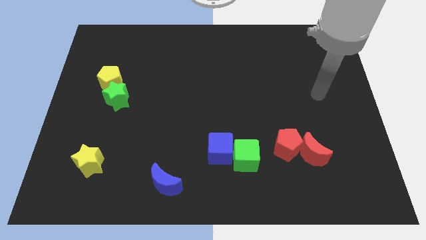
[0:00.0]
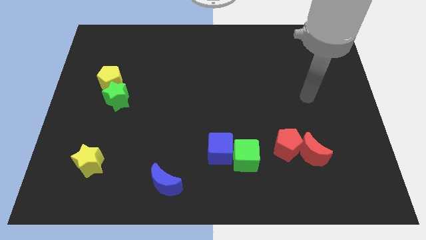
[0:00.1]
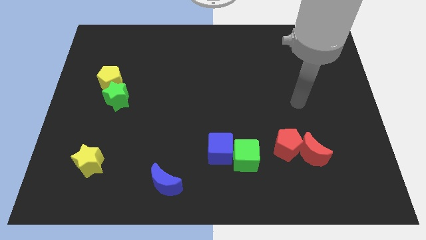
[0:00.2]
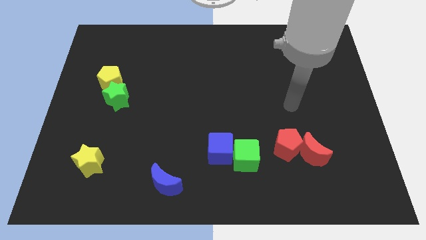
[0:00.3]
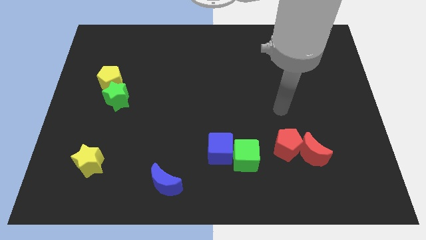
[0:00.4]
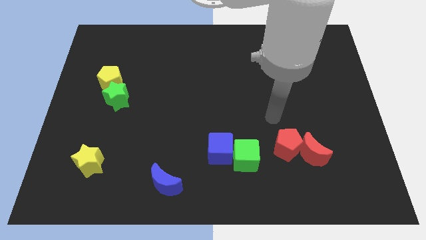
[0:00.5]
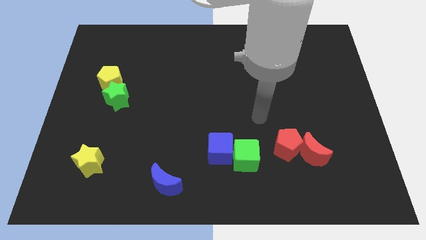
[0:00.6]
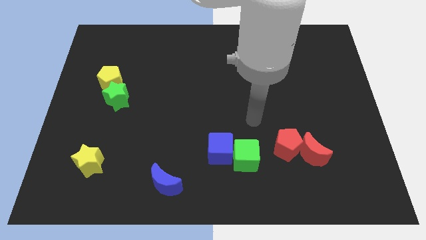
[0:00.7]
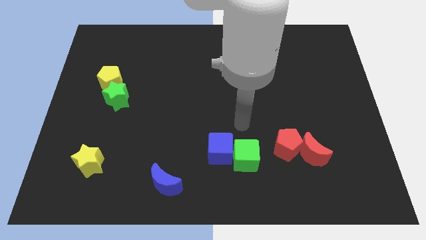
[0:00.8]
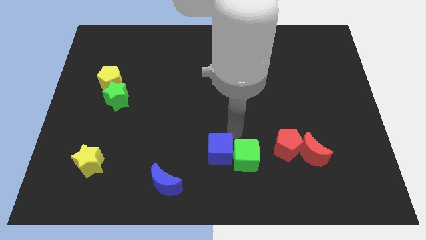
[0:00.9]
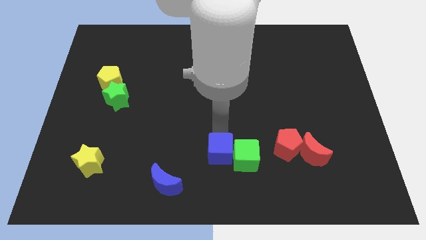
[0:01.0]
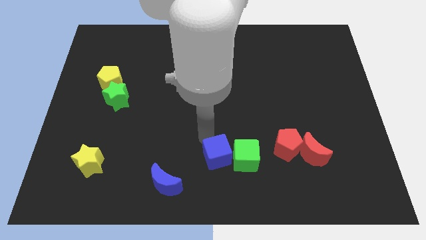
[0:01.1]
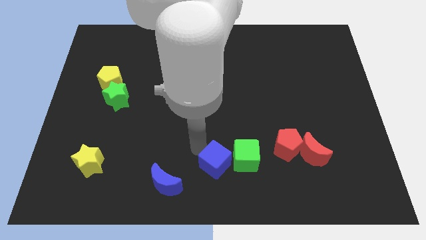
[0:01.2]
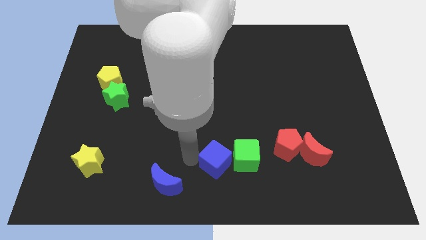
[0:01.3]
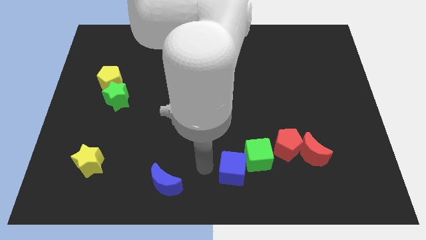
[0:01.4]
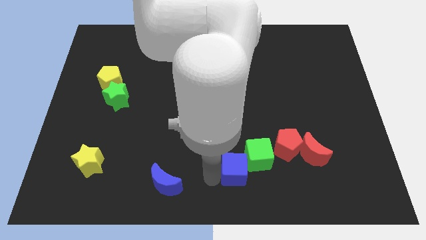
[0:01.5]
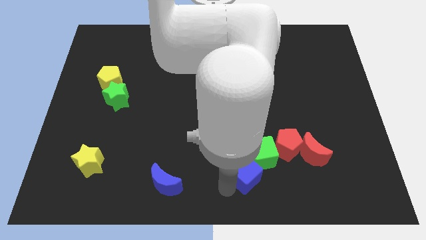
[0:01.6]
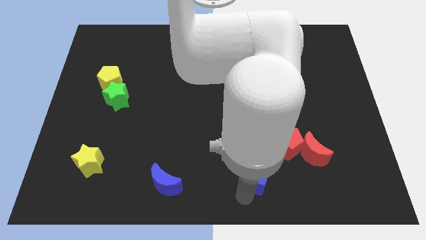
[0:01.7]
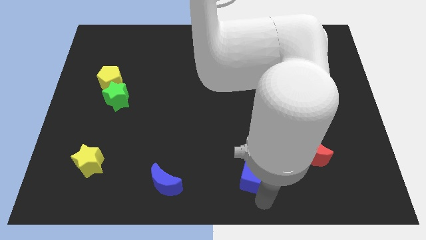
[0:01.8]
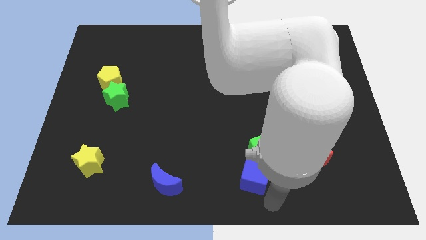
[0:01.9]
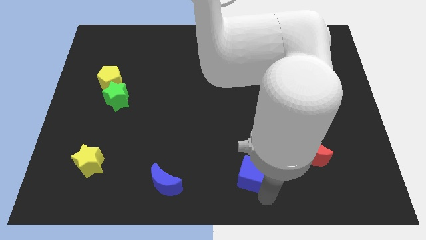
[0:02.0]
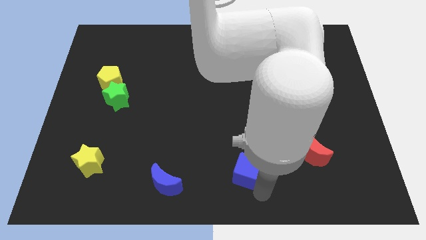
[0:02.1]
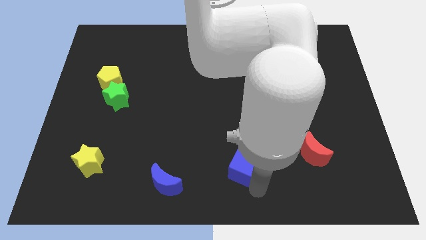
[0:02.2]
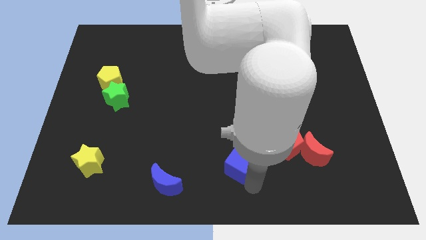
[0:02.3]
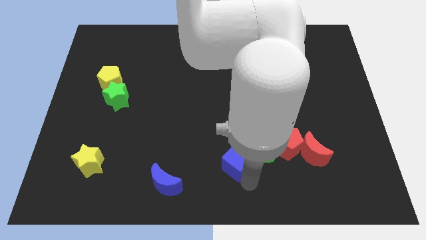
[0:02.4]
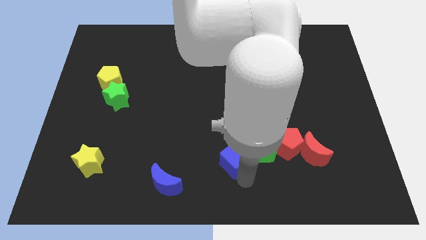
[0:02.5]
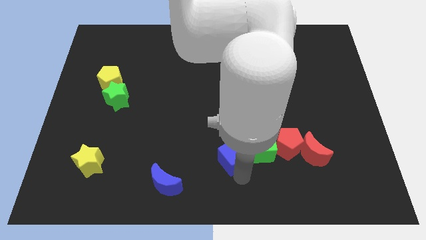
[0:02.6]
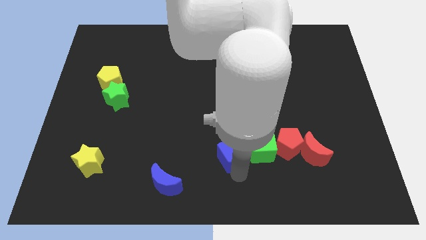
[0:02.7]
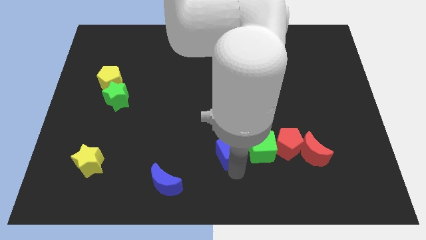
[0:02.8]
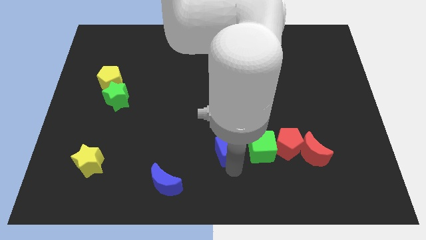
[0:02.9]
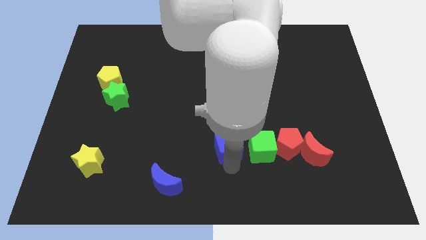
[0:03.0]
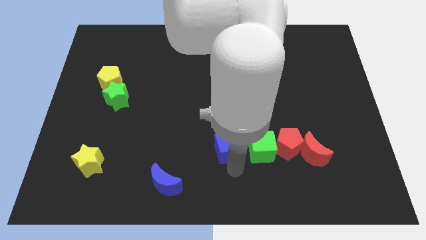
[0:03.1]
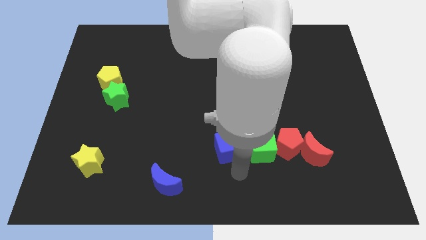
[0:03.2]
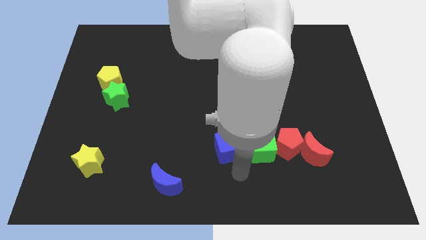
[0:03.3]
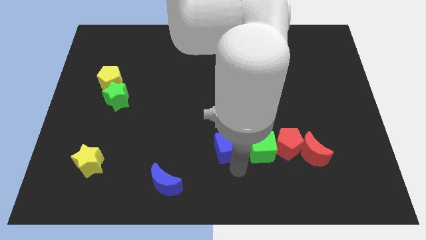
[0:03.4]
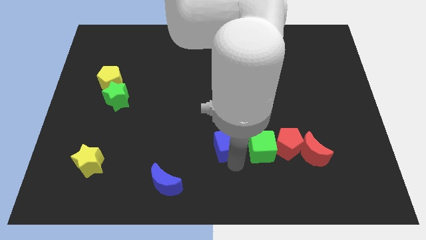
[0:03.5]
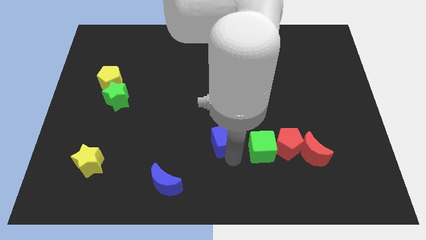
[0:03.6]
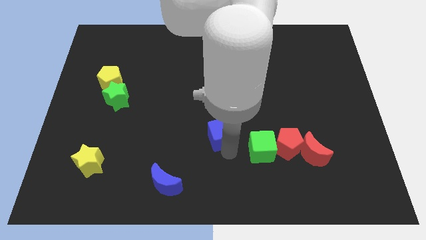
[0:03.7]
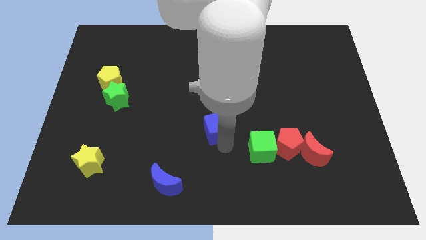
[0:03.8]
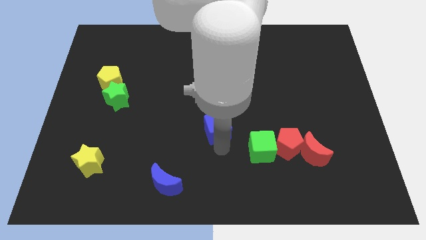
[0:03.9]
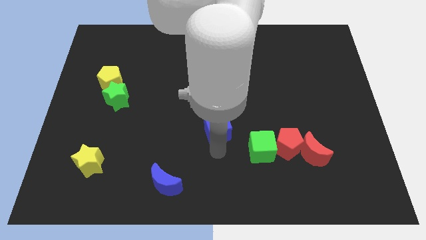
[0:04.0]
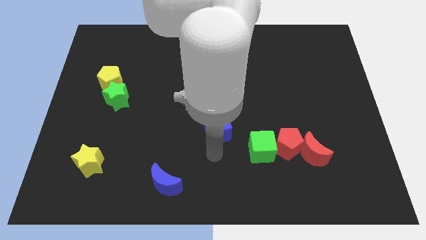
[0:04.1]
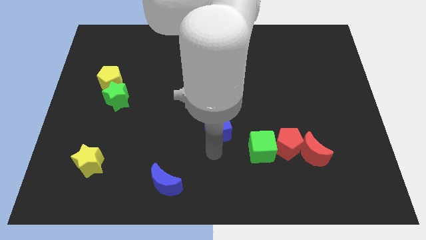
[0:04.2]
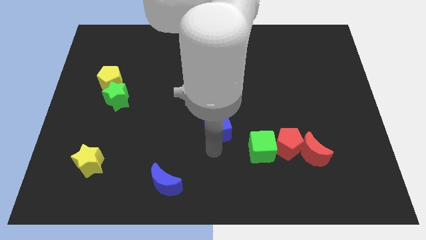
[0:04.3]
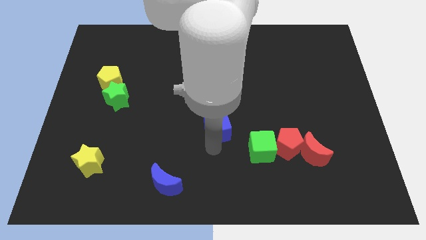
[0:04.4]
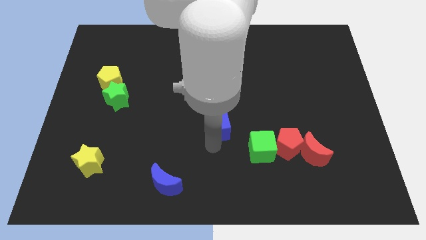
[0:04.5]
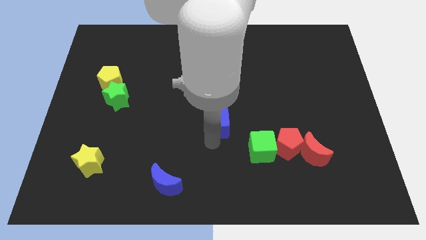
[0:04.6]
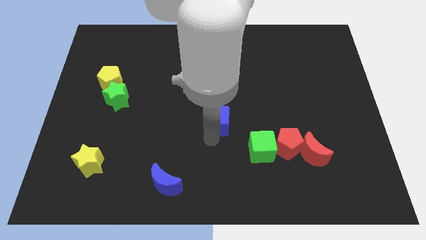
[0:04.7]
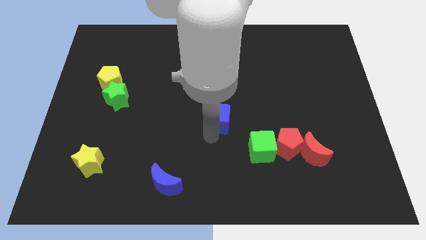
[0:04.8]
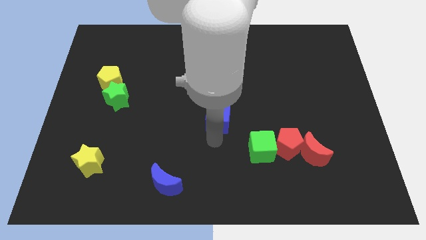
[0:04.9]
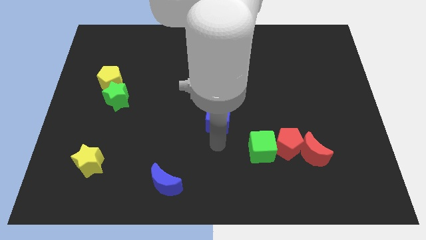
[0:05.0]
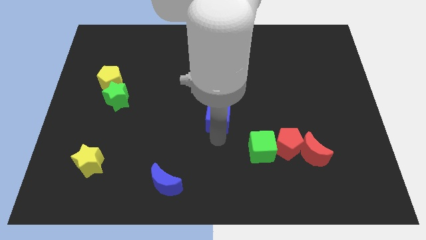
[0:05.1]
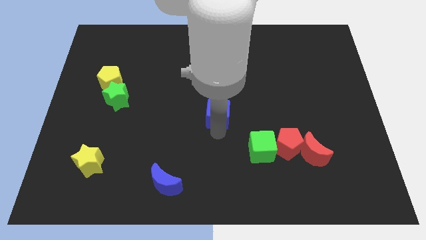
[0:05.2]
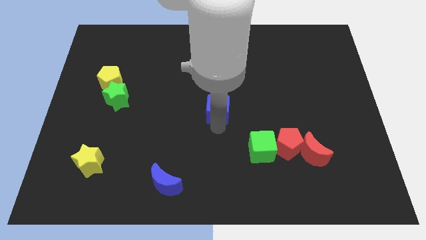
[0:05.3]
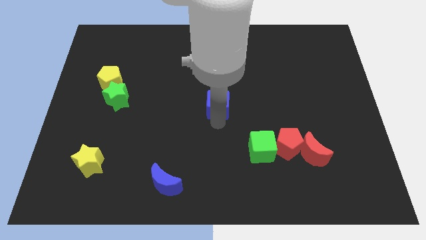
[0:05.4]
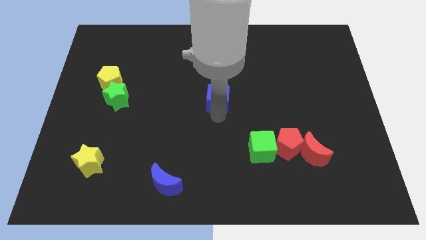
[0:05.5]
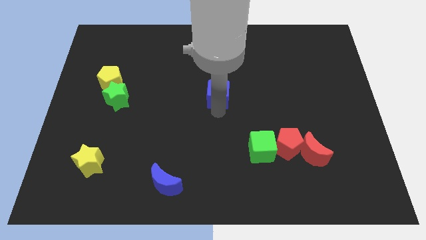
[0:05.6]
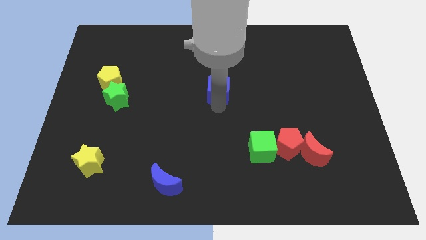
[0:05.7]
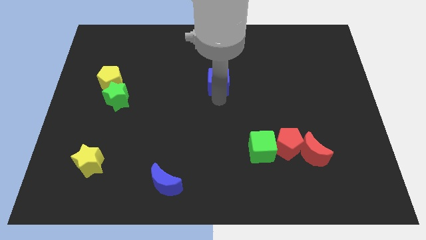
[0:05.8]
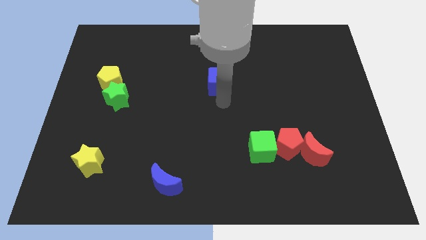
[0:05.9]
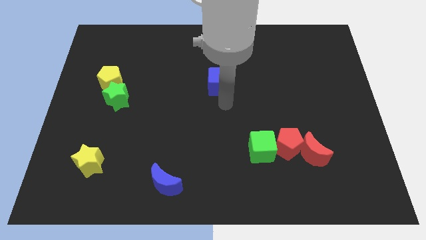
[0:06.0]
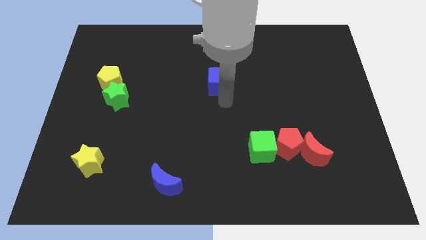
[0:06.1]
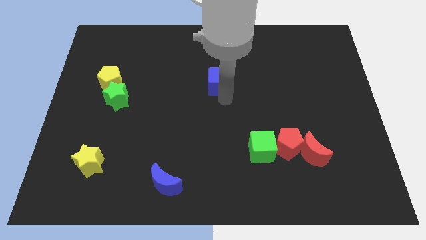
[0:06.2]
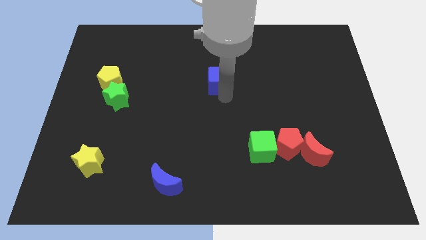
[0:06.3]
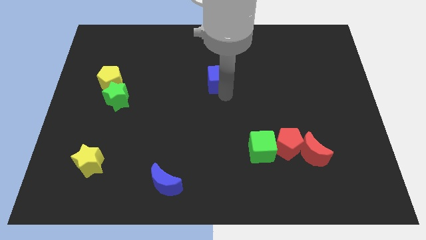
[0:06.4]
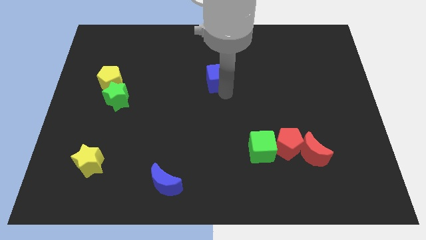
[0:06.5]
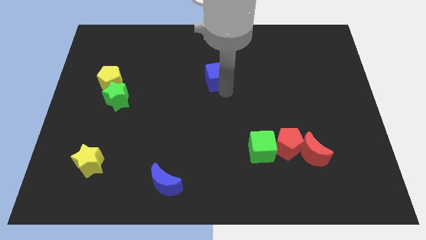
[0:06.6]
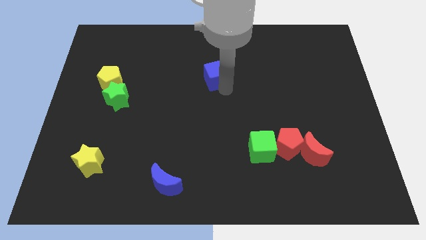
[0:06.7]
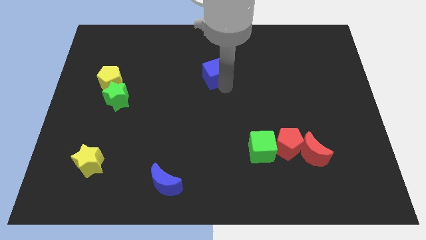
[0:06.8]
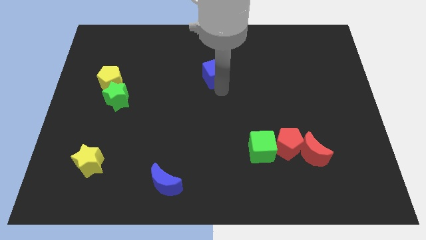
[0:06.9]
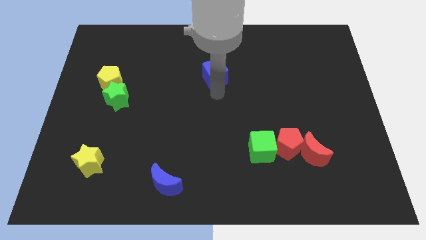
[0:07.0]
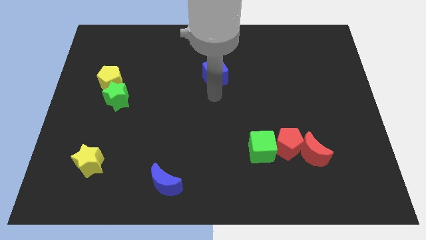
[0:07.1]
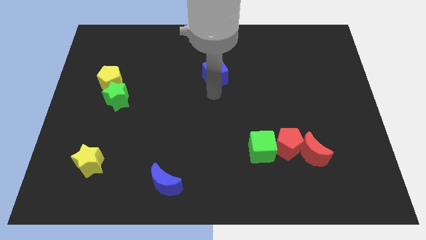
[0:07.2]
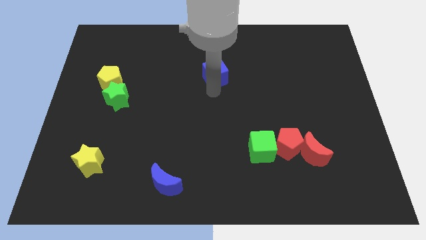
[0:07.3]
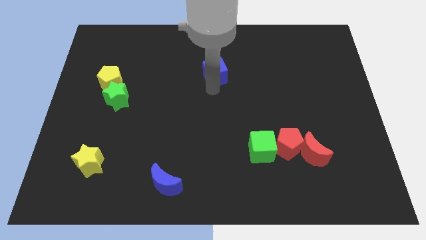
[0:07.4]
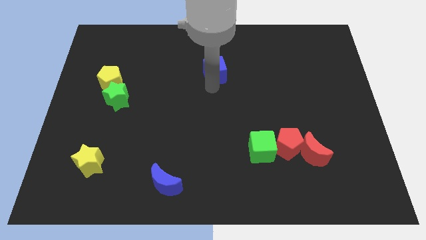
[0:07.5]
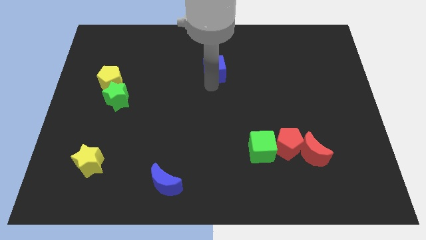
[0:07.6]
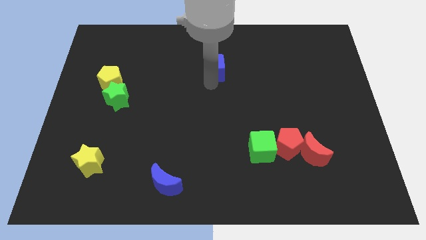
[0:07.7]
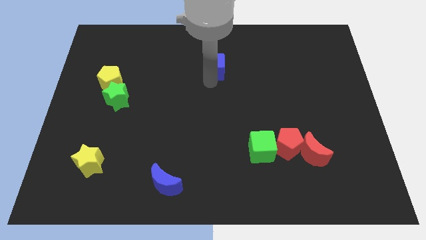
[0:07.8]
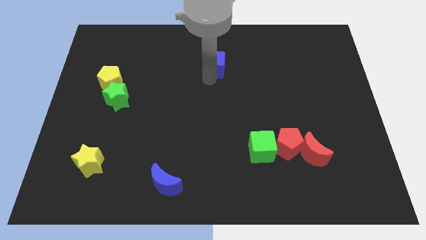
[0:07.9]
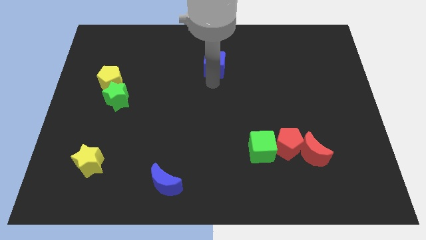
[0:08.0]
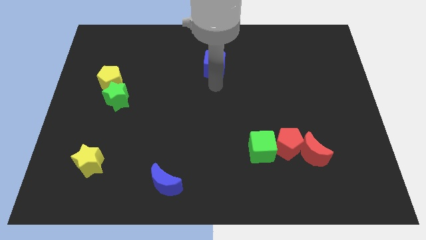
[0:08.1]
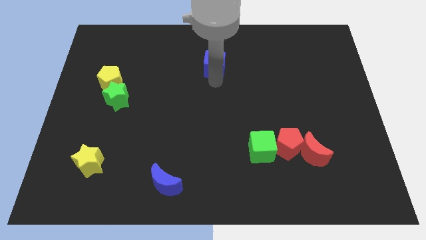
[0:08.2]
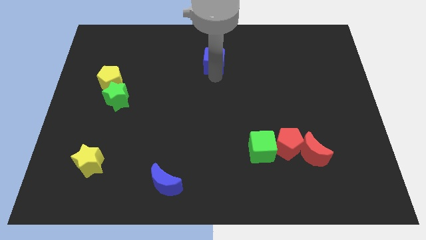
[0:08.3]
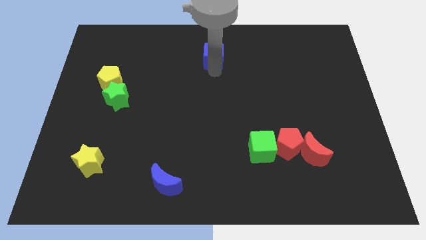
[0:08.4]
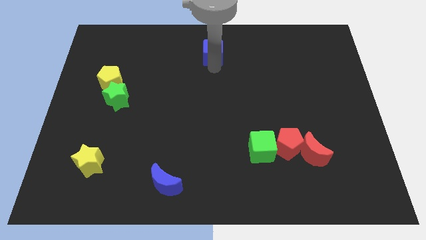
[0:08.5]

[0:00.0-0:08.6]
push the blue cube to the towards your base
